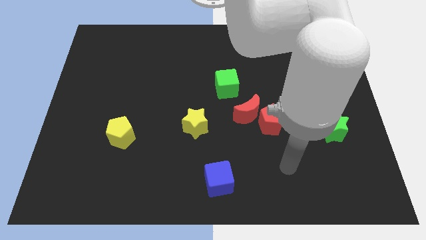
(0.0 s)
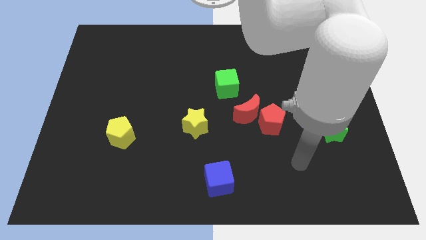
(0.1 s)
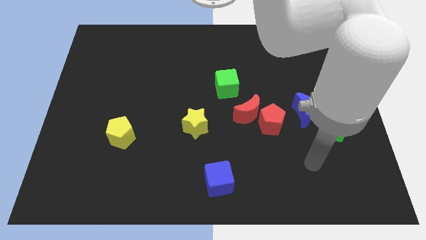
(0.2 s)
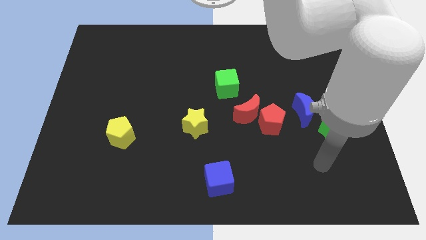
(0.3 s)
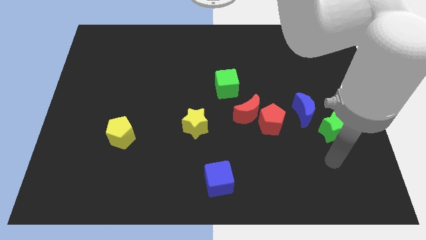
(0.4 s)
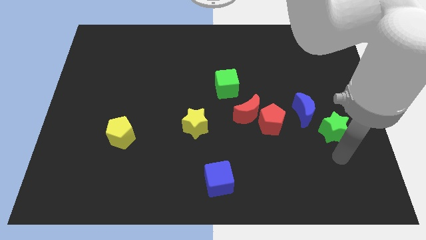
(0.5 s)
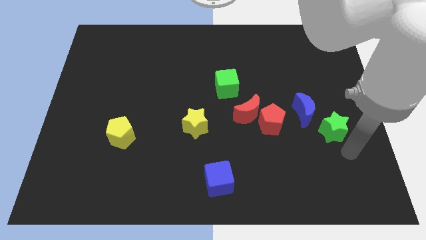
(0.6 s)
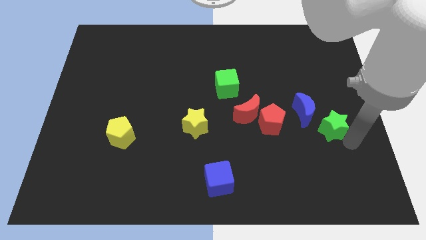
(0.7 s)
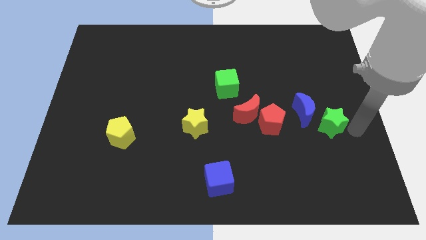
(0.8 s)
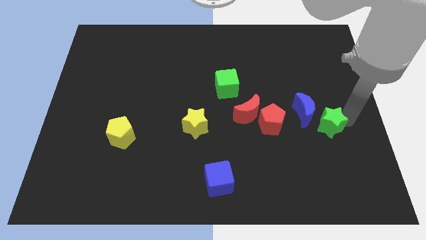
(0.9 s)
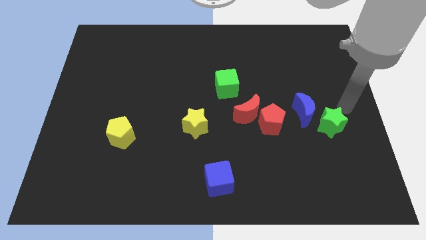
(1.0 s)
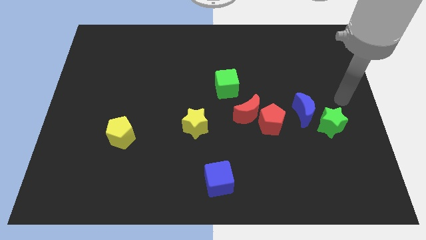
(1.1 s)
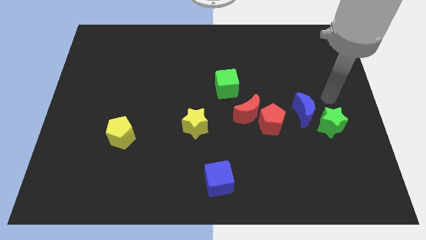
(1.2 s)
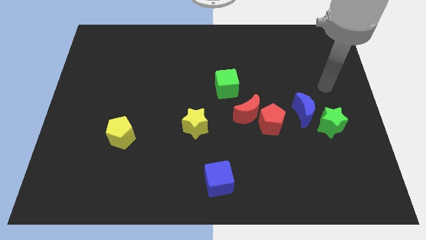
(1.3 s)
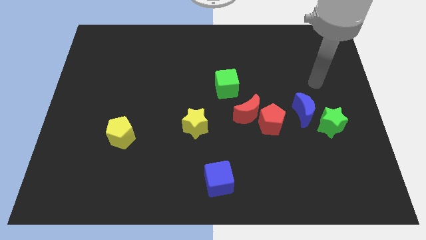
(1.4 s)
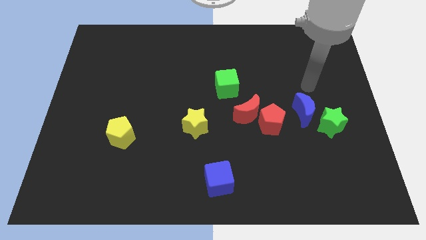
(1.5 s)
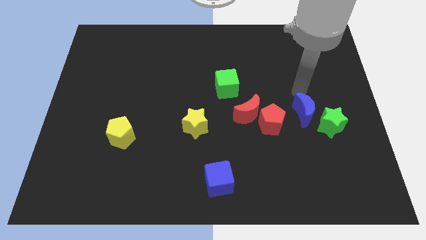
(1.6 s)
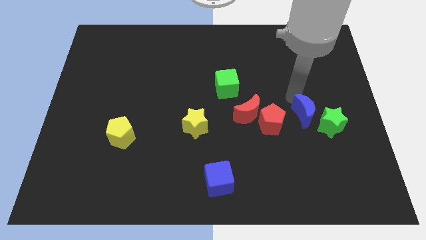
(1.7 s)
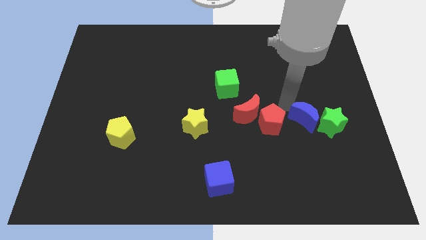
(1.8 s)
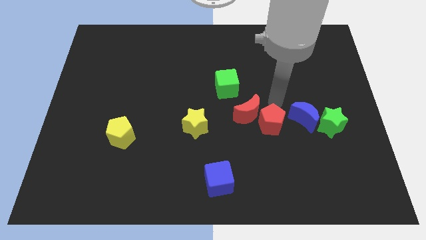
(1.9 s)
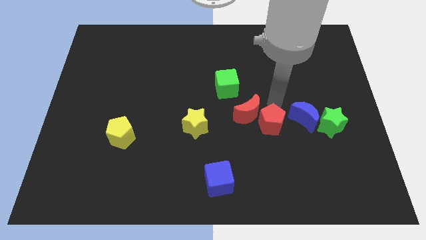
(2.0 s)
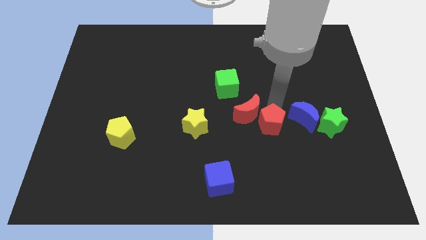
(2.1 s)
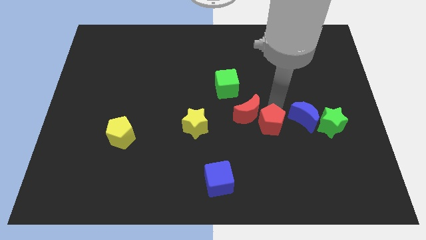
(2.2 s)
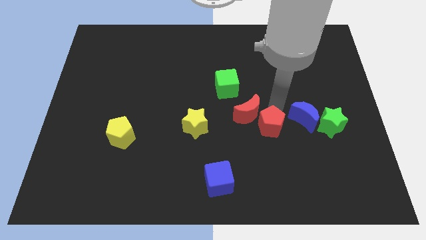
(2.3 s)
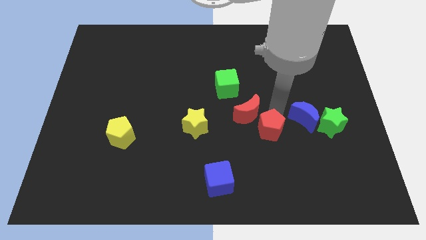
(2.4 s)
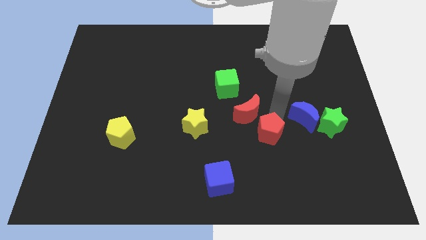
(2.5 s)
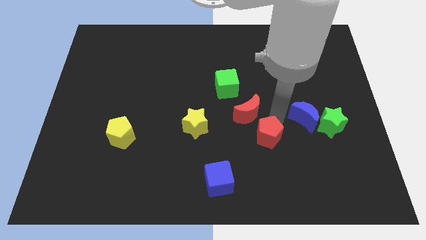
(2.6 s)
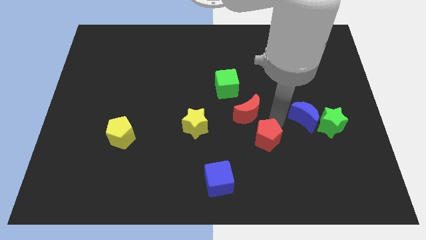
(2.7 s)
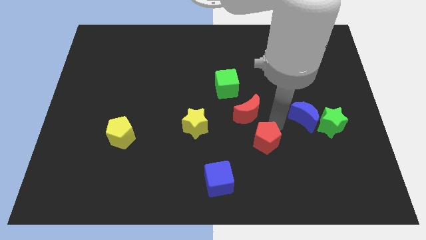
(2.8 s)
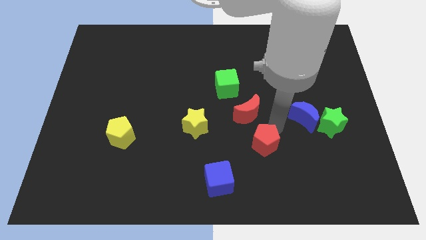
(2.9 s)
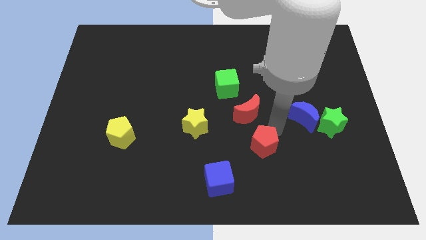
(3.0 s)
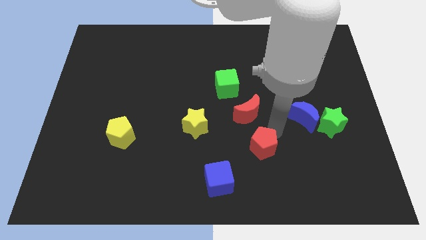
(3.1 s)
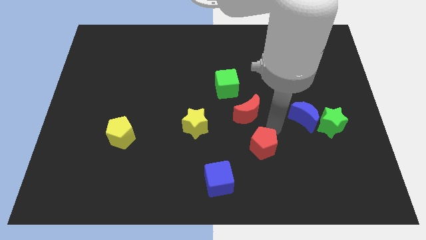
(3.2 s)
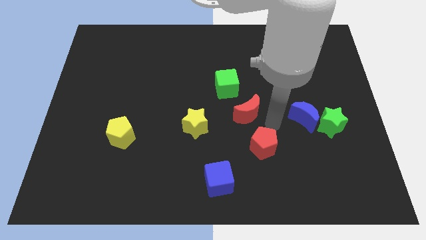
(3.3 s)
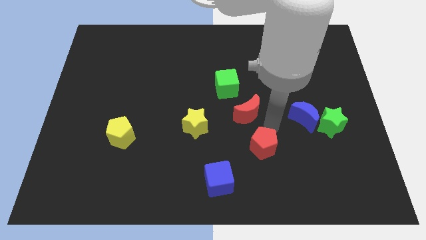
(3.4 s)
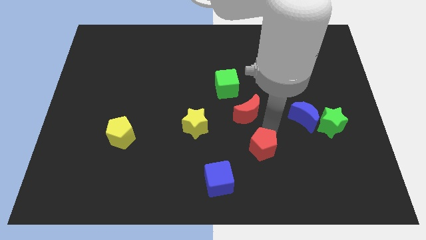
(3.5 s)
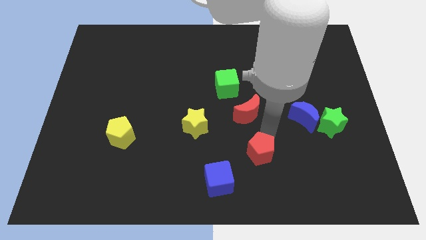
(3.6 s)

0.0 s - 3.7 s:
separate the red pentagon from the red moon and blue moon

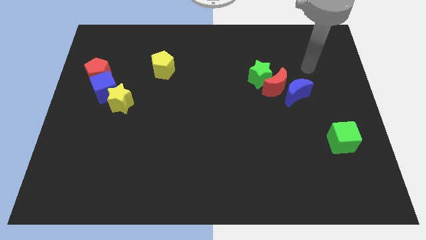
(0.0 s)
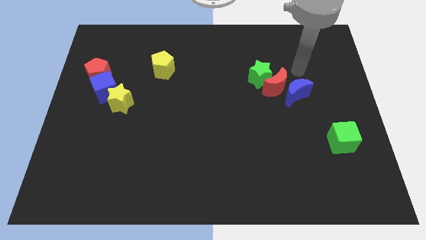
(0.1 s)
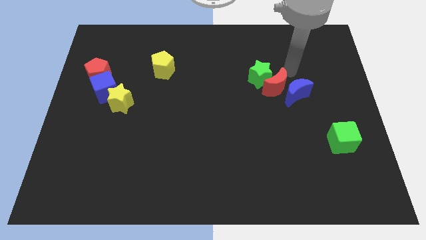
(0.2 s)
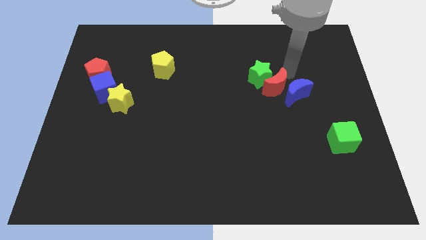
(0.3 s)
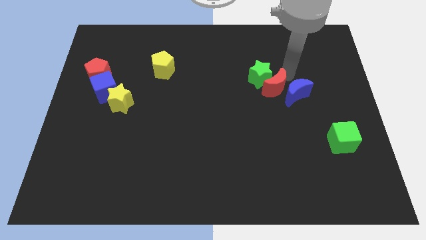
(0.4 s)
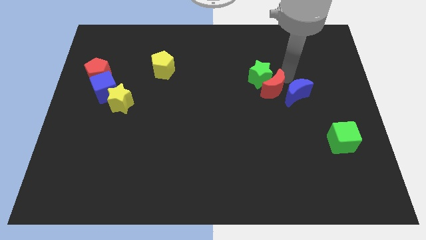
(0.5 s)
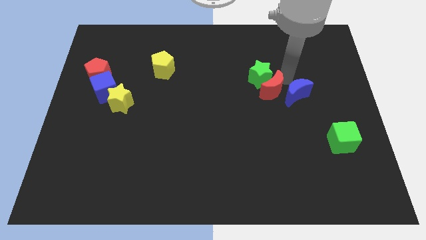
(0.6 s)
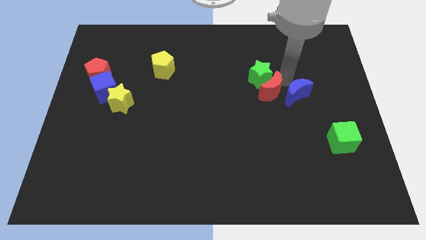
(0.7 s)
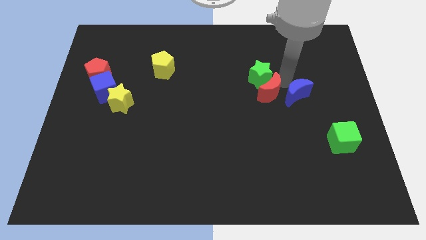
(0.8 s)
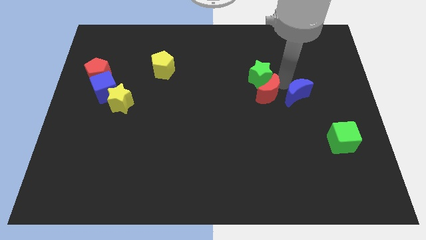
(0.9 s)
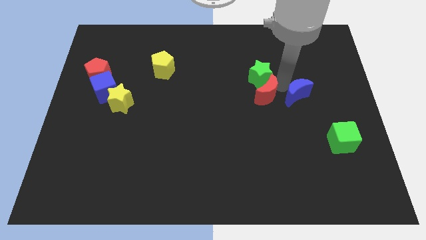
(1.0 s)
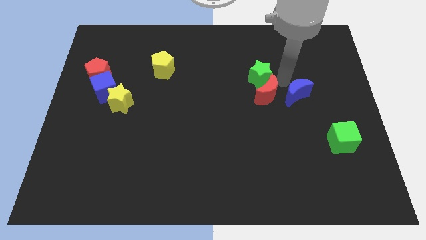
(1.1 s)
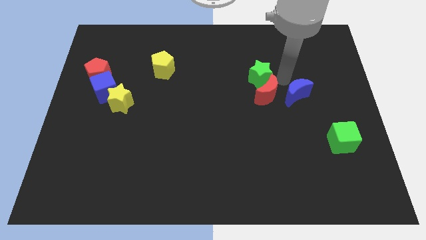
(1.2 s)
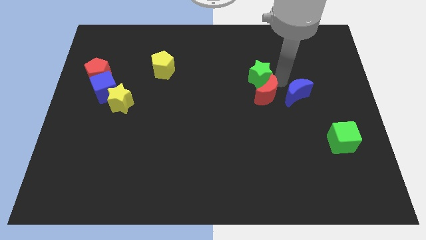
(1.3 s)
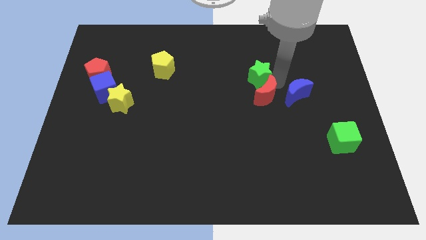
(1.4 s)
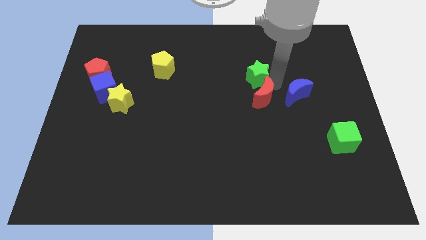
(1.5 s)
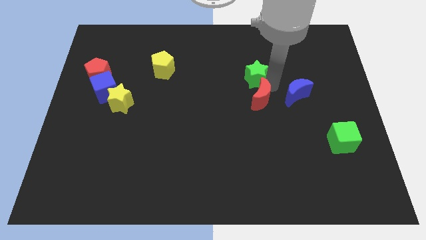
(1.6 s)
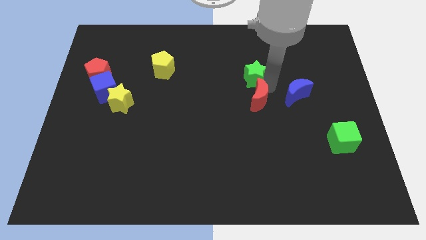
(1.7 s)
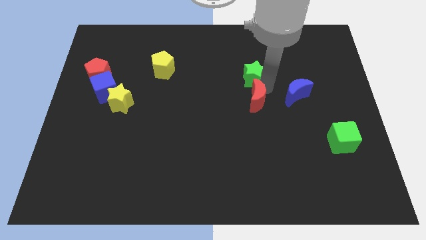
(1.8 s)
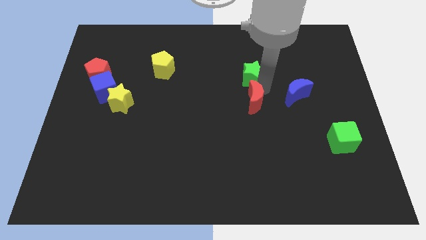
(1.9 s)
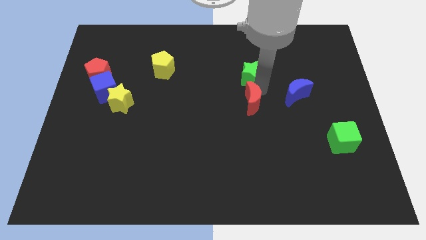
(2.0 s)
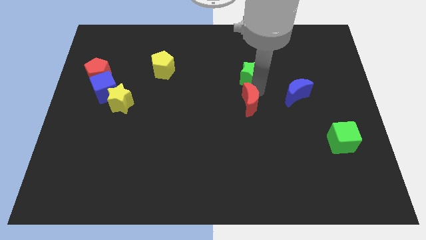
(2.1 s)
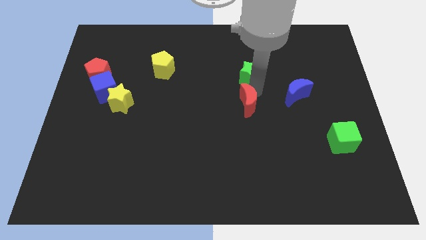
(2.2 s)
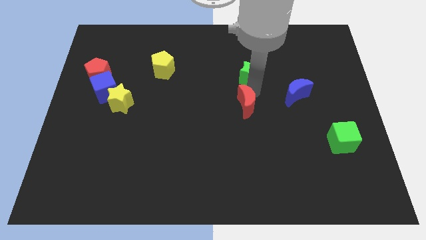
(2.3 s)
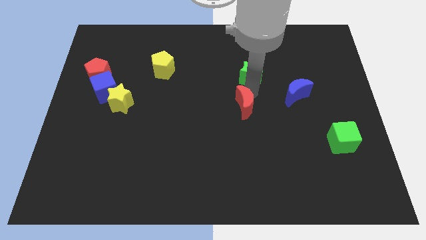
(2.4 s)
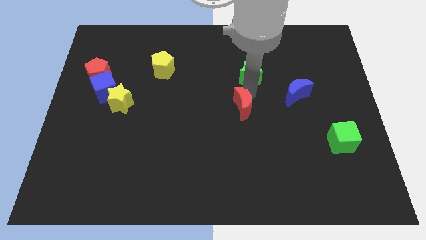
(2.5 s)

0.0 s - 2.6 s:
move the red moon away from the green star and blue moon

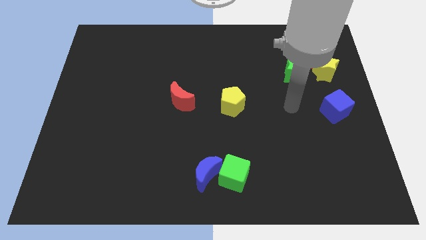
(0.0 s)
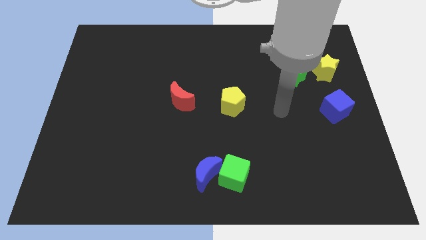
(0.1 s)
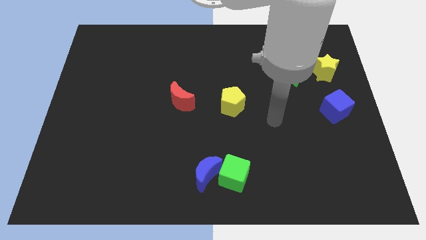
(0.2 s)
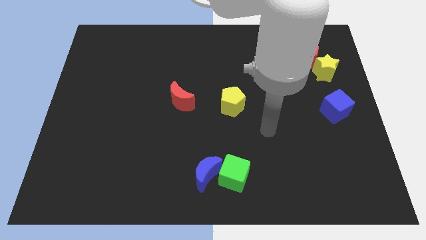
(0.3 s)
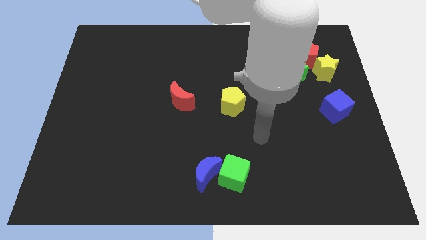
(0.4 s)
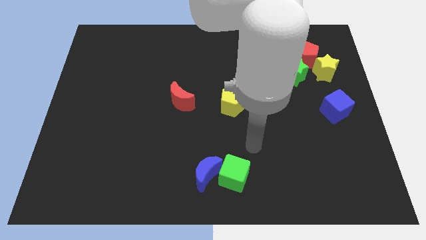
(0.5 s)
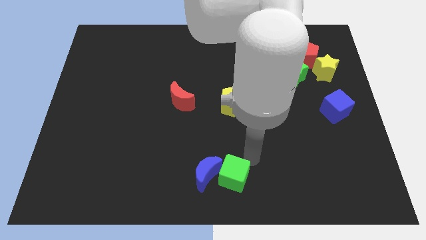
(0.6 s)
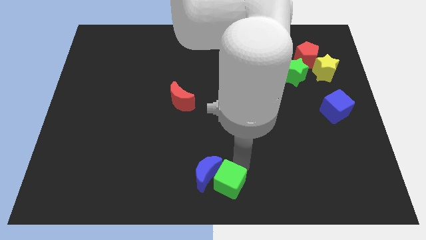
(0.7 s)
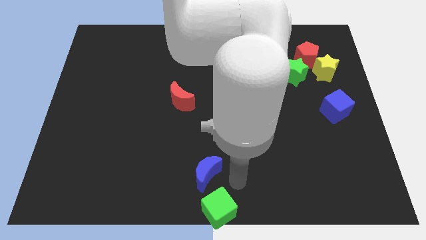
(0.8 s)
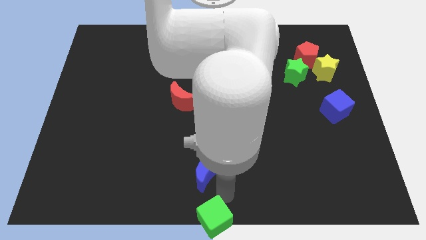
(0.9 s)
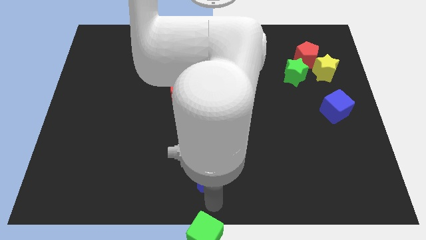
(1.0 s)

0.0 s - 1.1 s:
separate the blue moon from the green cube

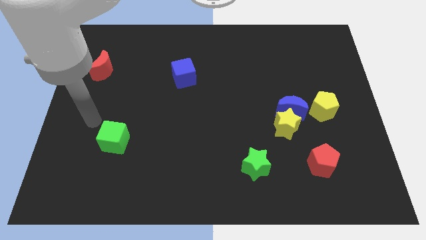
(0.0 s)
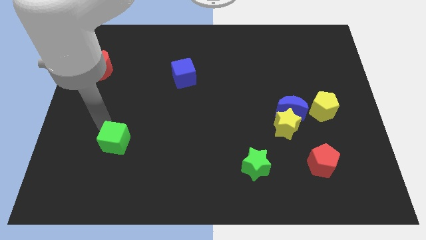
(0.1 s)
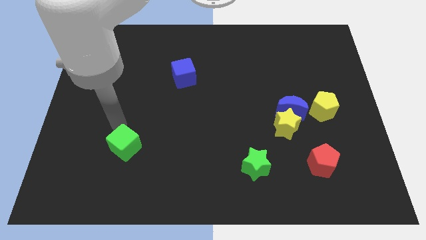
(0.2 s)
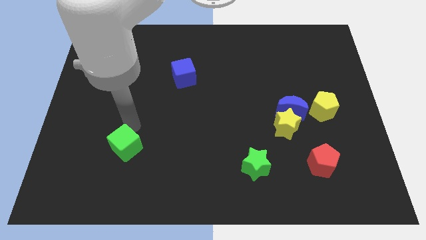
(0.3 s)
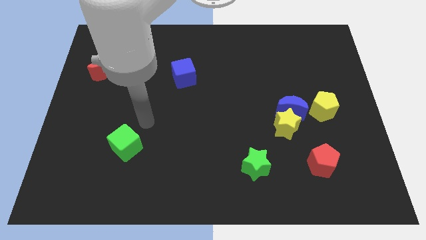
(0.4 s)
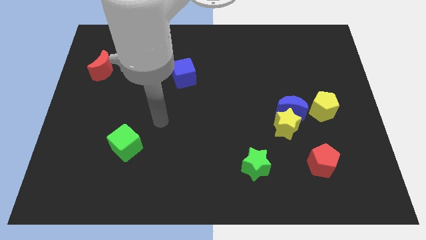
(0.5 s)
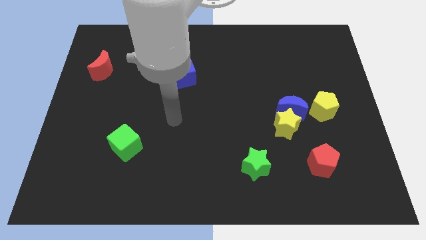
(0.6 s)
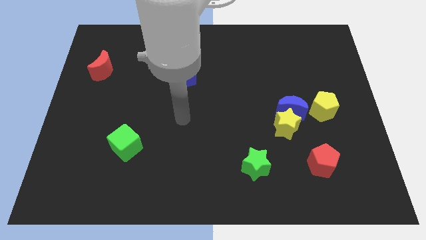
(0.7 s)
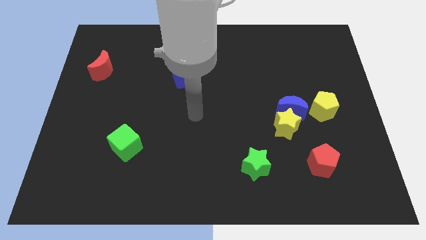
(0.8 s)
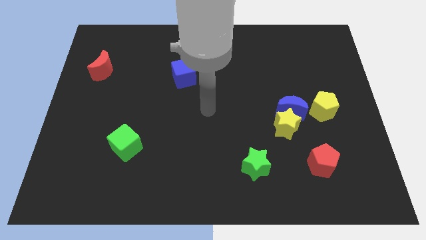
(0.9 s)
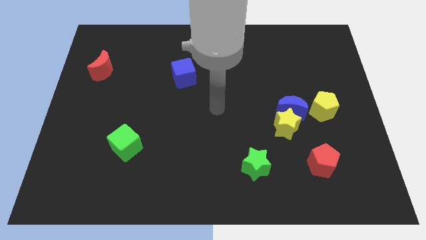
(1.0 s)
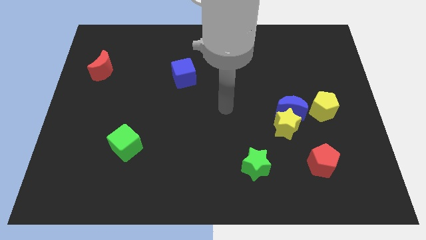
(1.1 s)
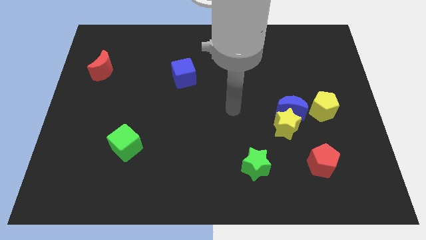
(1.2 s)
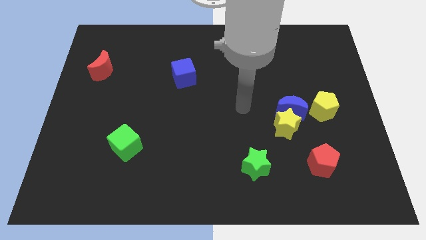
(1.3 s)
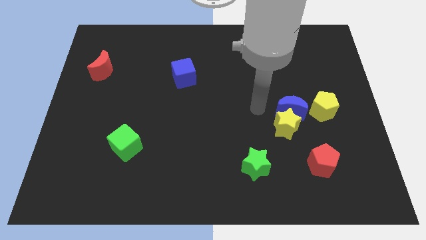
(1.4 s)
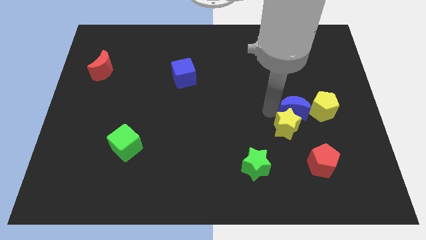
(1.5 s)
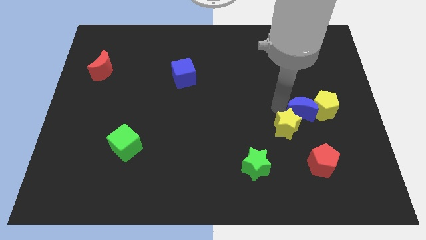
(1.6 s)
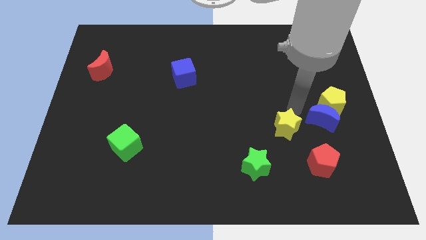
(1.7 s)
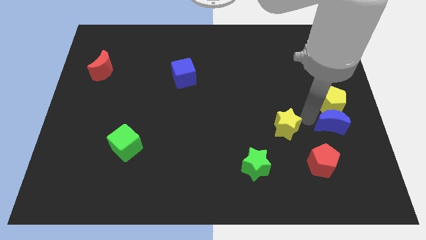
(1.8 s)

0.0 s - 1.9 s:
separate the yellow star from the blue moon
